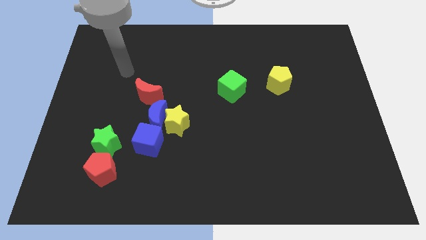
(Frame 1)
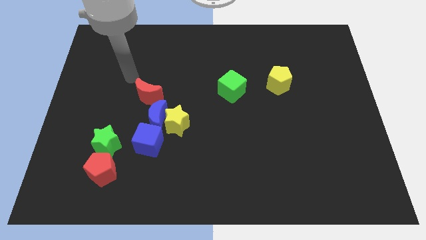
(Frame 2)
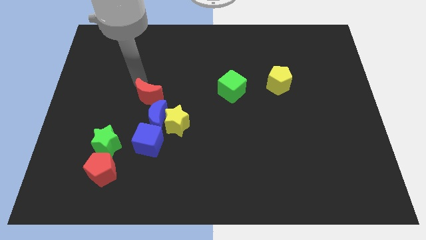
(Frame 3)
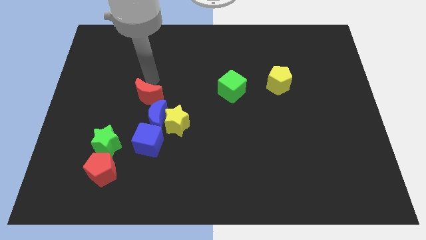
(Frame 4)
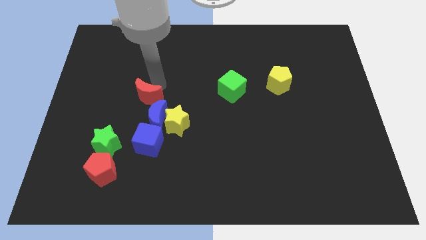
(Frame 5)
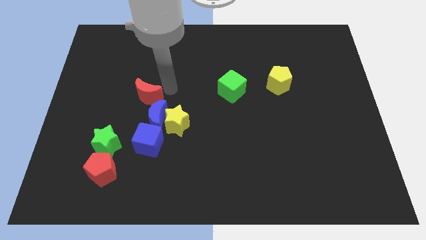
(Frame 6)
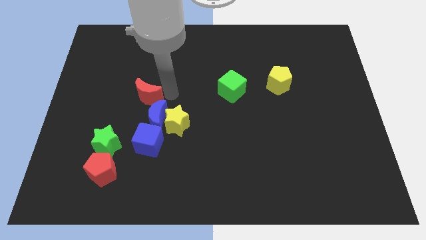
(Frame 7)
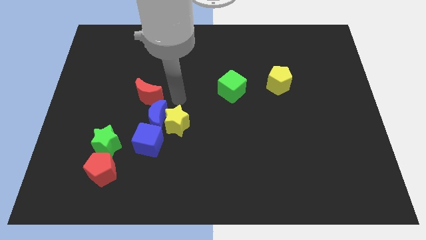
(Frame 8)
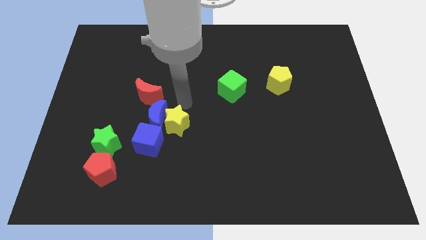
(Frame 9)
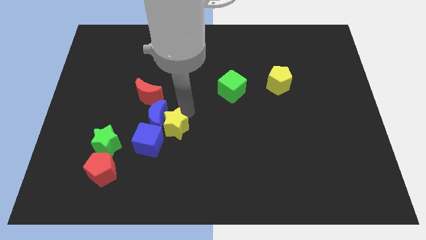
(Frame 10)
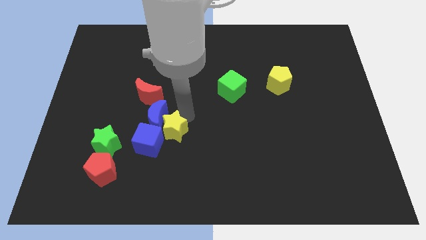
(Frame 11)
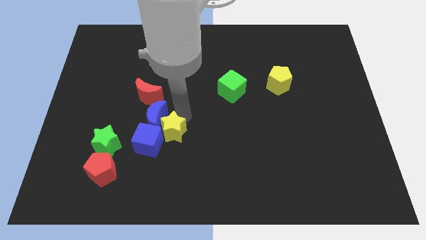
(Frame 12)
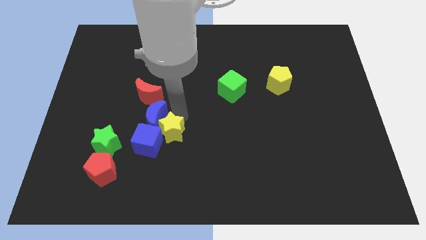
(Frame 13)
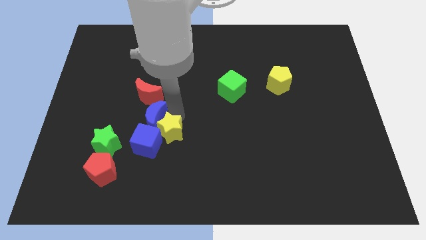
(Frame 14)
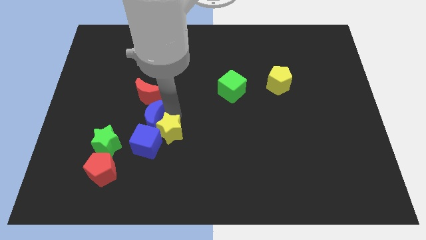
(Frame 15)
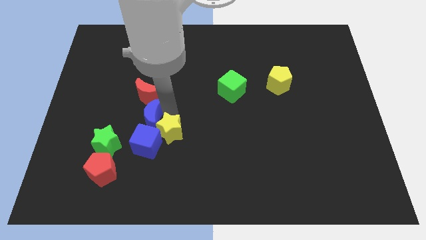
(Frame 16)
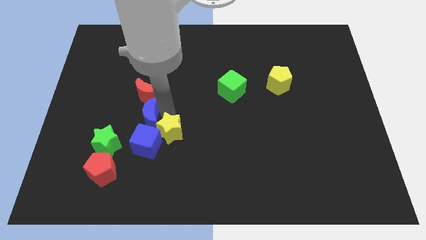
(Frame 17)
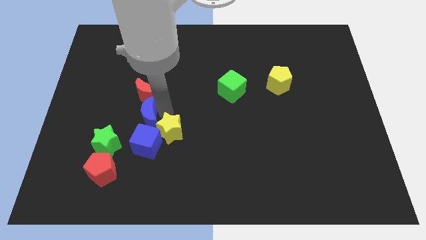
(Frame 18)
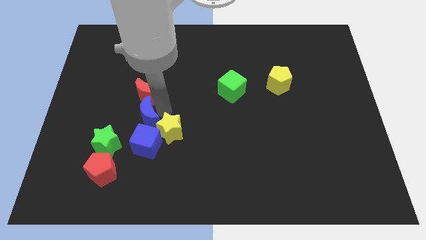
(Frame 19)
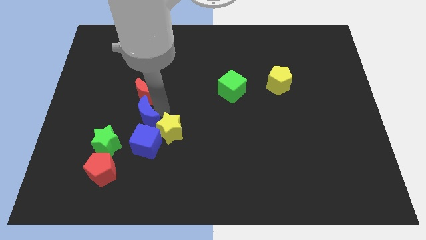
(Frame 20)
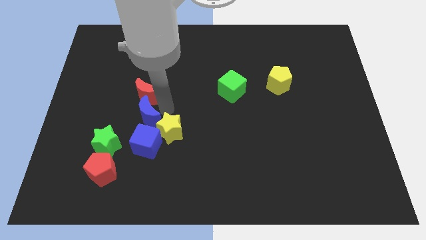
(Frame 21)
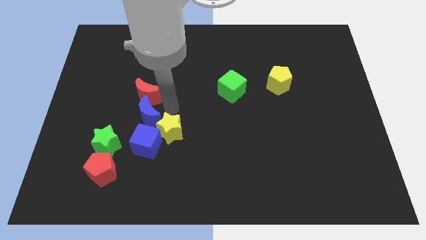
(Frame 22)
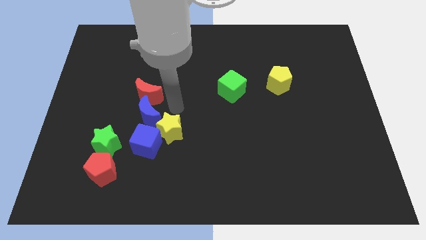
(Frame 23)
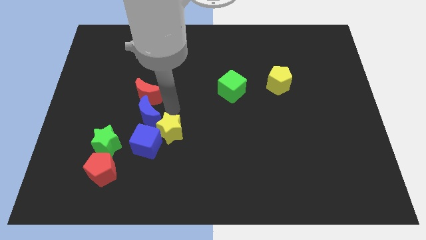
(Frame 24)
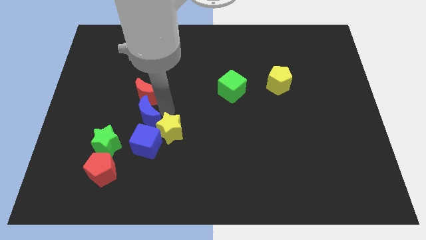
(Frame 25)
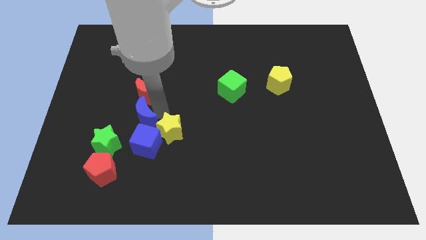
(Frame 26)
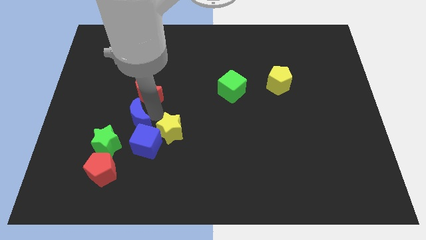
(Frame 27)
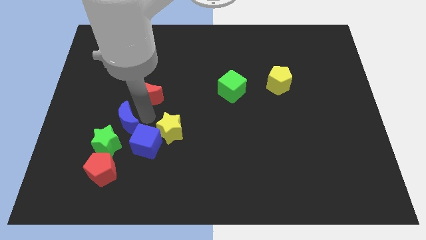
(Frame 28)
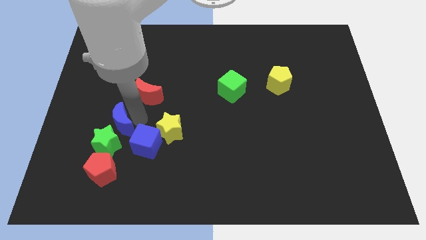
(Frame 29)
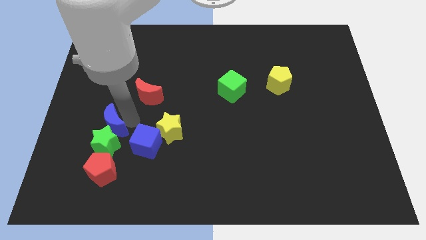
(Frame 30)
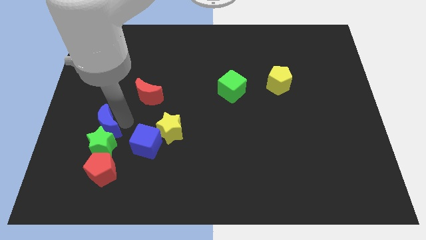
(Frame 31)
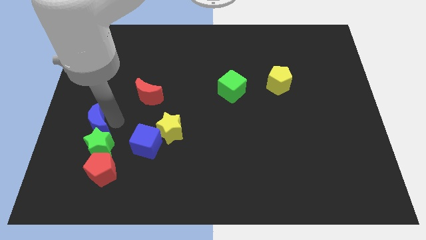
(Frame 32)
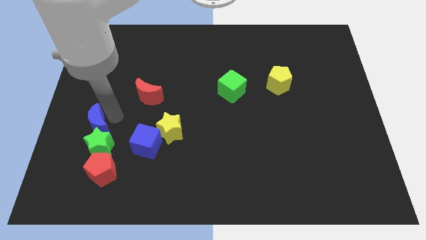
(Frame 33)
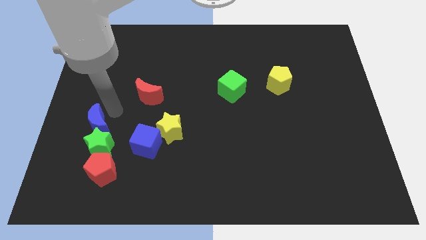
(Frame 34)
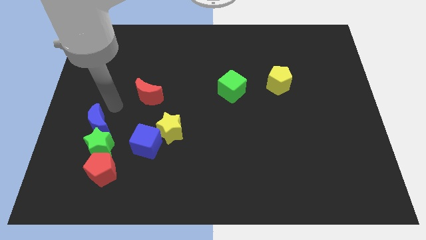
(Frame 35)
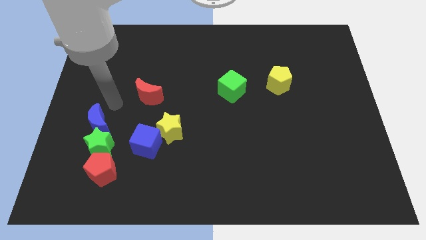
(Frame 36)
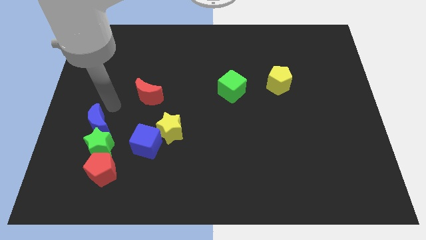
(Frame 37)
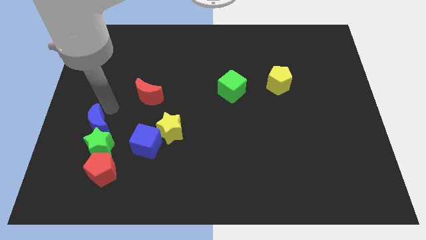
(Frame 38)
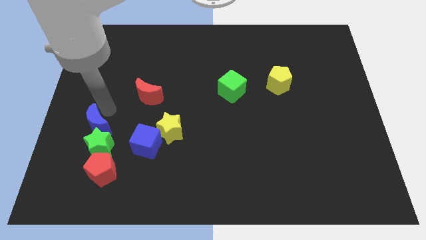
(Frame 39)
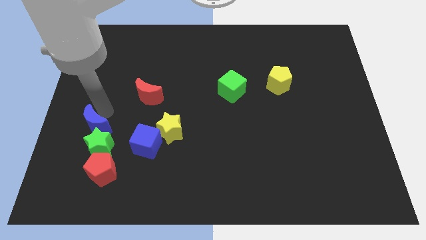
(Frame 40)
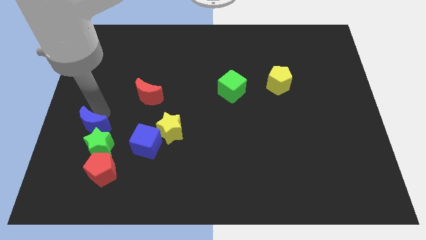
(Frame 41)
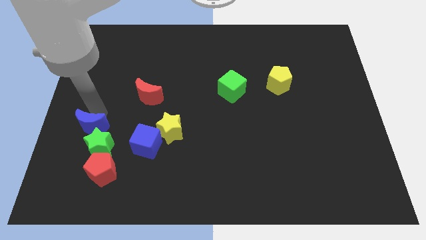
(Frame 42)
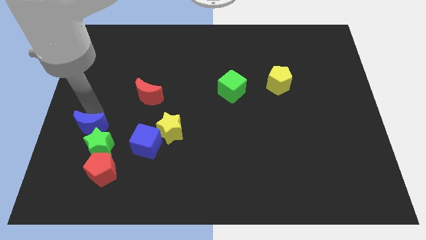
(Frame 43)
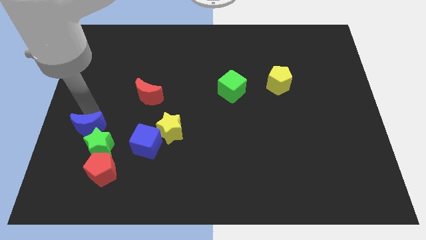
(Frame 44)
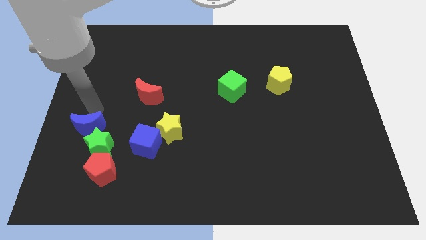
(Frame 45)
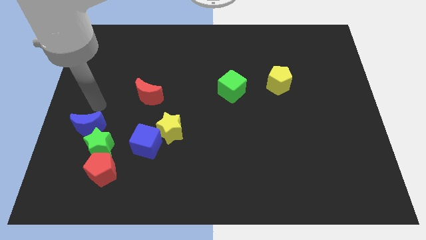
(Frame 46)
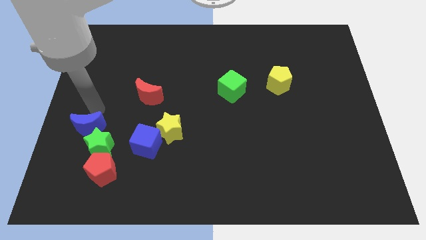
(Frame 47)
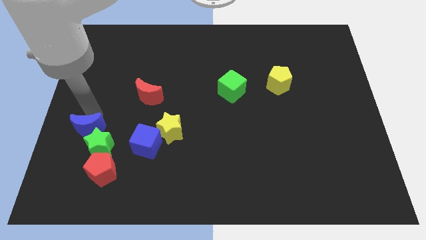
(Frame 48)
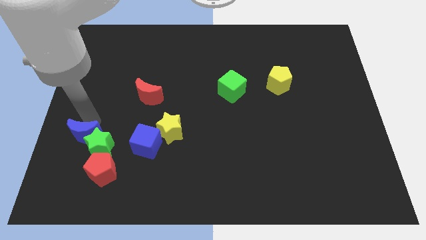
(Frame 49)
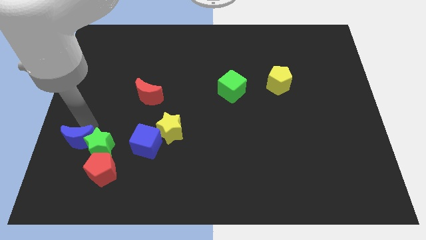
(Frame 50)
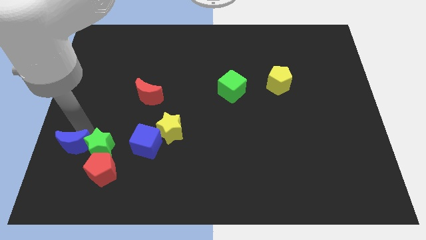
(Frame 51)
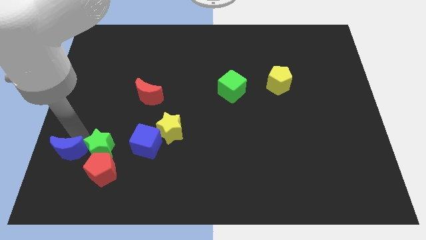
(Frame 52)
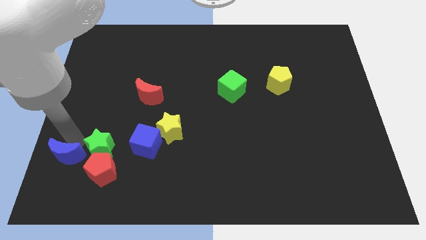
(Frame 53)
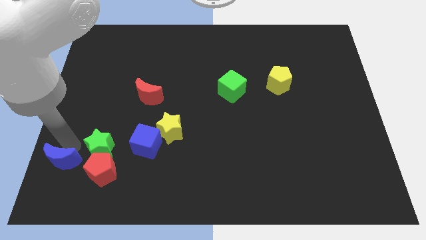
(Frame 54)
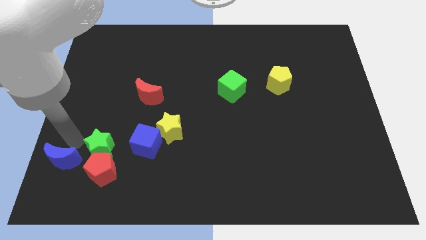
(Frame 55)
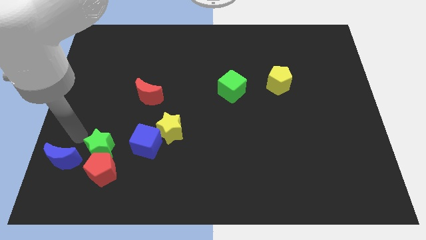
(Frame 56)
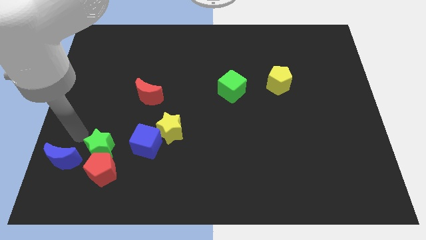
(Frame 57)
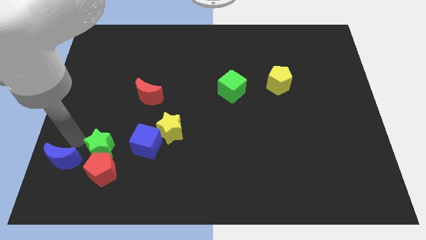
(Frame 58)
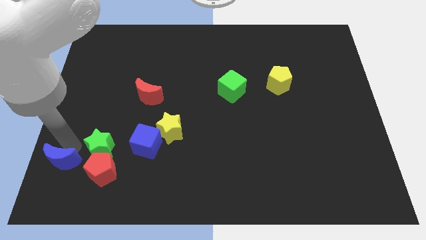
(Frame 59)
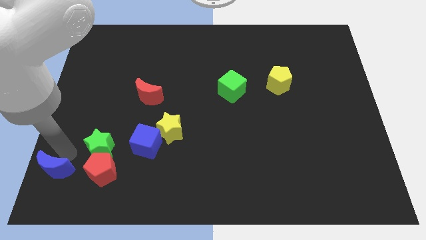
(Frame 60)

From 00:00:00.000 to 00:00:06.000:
push the blue moon to the lower left corner

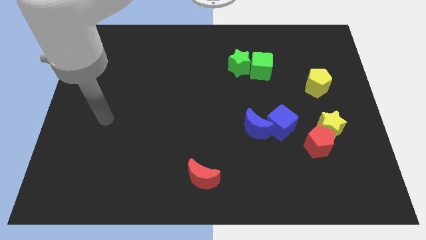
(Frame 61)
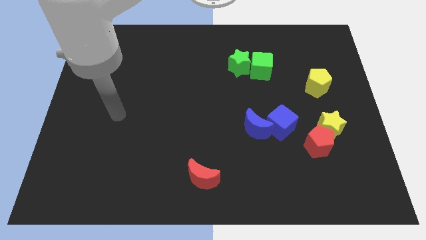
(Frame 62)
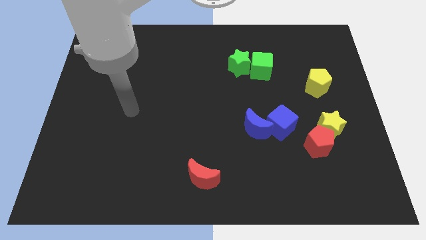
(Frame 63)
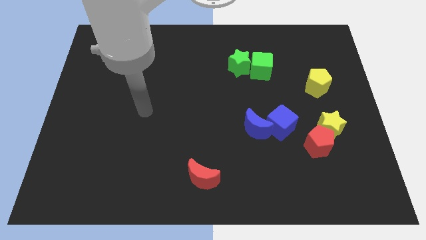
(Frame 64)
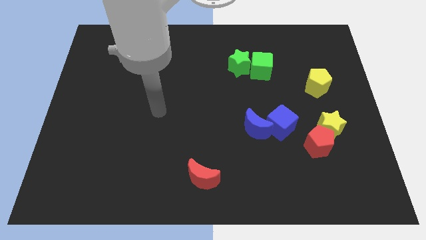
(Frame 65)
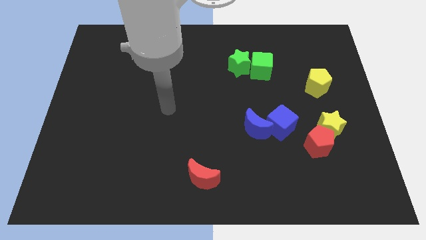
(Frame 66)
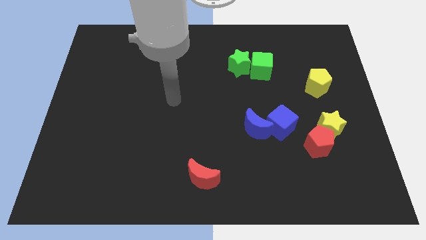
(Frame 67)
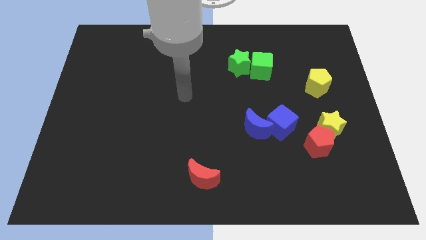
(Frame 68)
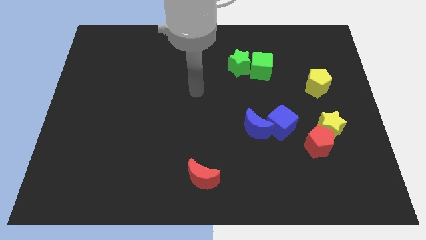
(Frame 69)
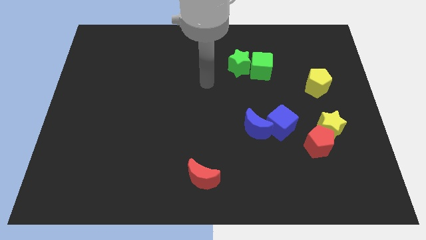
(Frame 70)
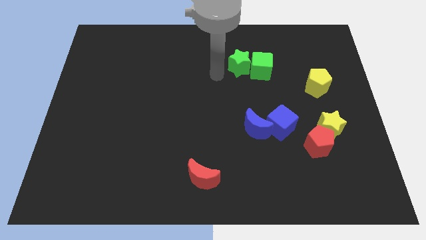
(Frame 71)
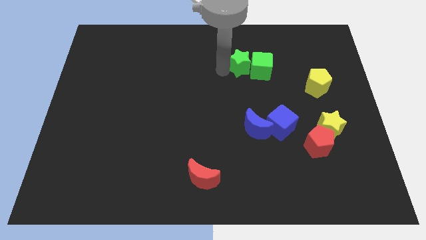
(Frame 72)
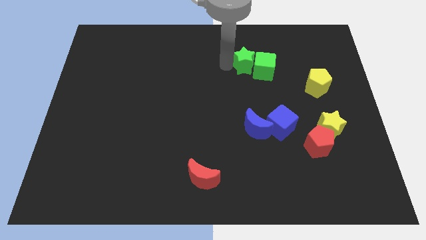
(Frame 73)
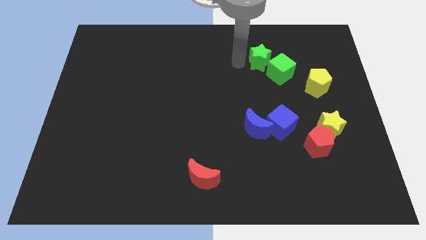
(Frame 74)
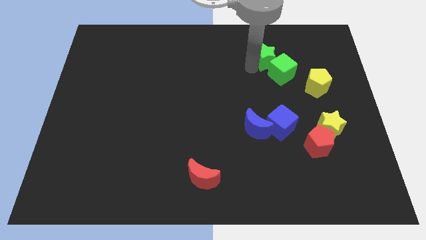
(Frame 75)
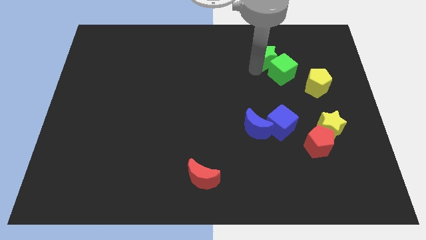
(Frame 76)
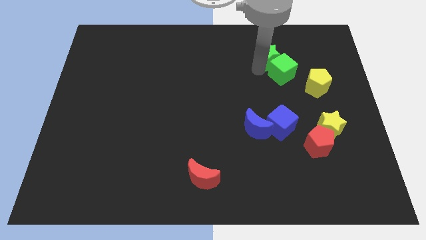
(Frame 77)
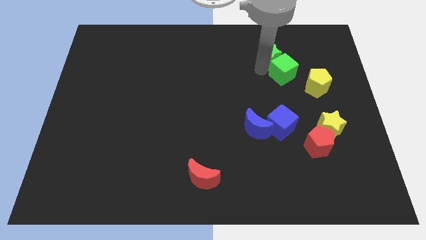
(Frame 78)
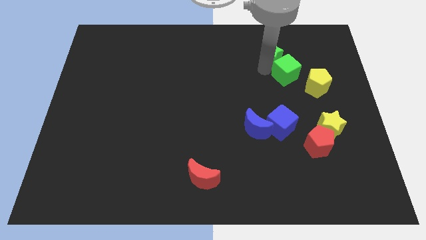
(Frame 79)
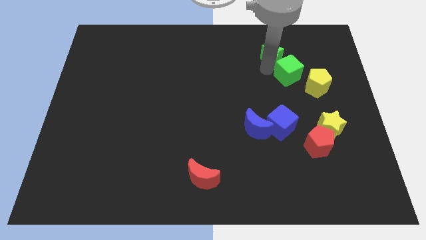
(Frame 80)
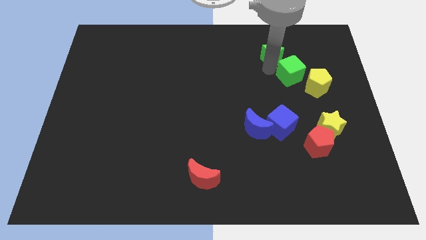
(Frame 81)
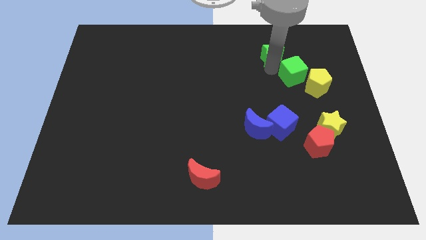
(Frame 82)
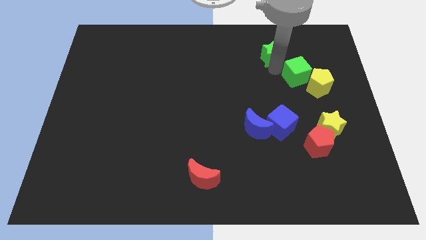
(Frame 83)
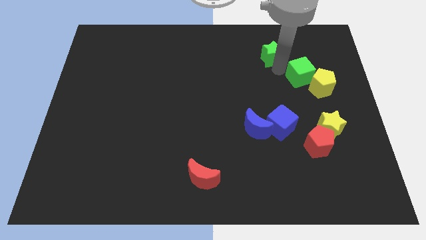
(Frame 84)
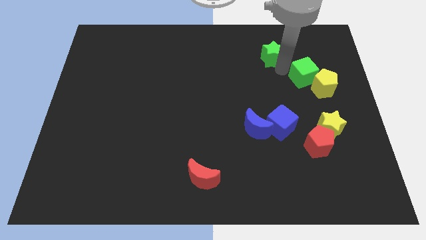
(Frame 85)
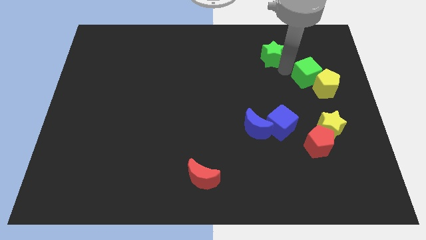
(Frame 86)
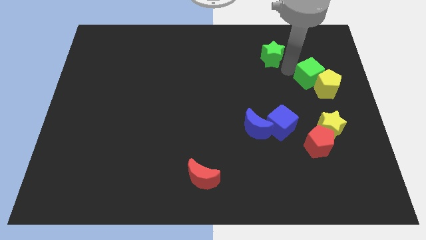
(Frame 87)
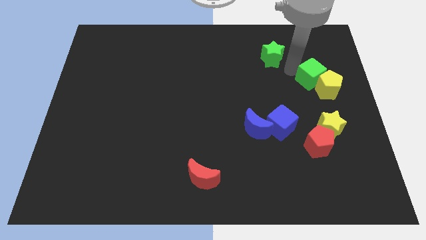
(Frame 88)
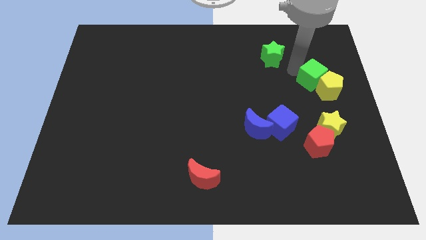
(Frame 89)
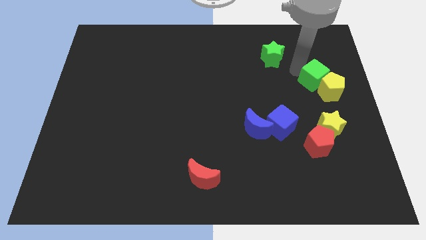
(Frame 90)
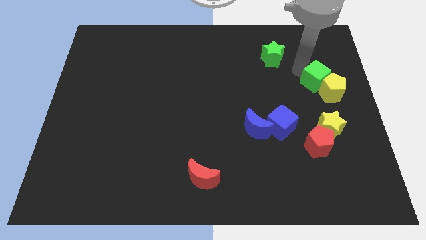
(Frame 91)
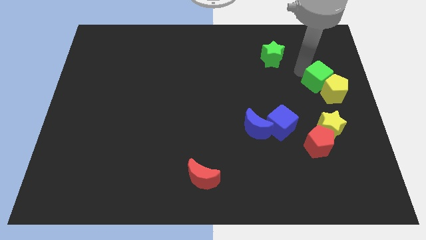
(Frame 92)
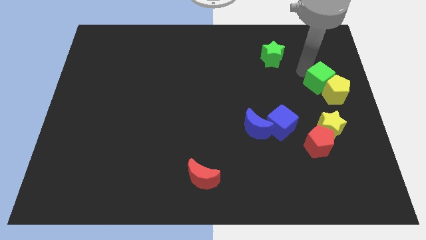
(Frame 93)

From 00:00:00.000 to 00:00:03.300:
push the green cube to the right side
